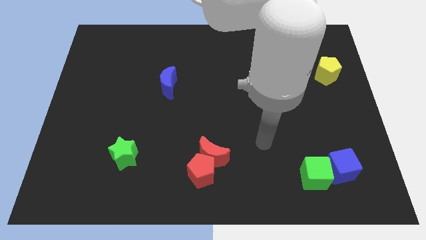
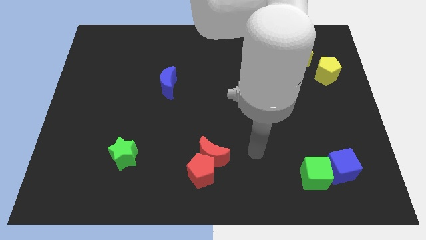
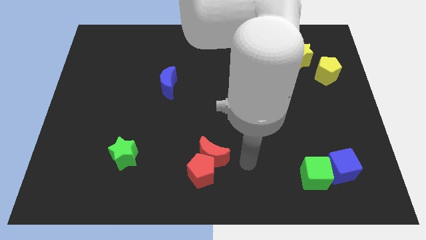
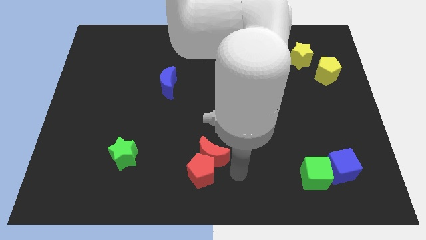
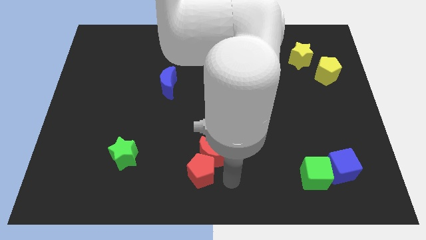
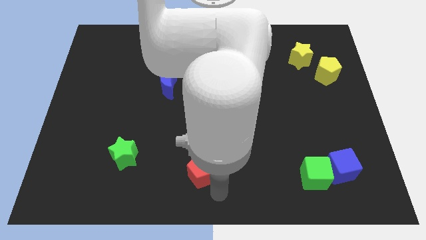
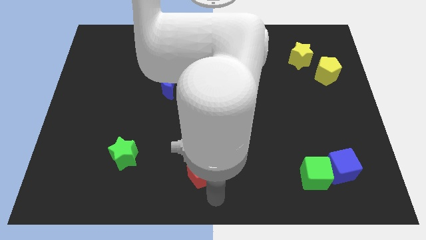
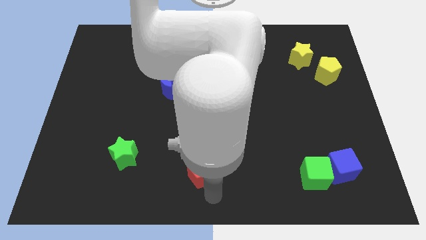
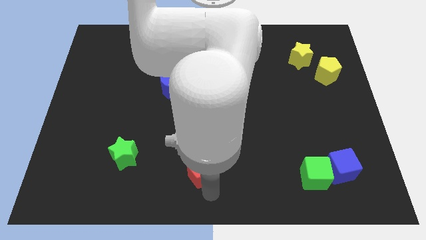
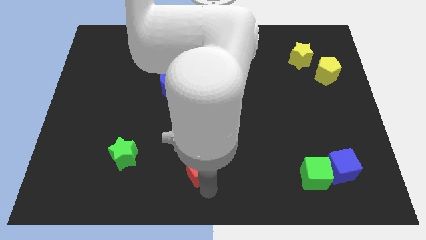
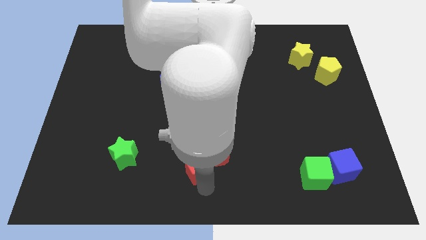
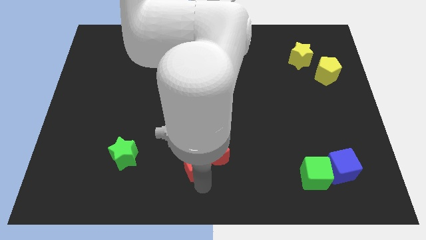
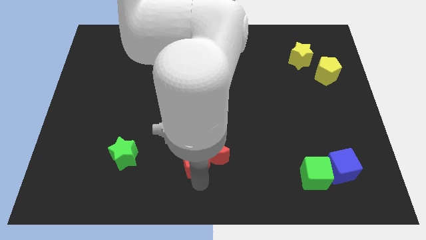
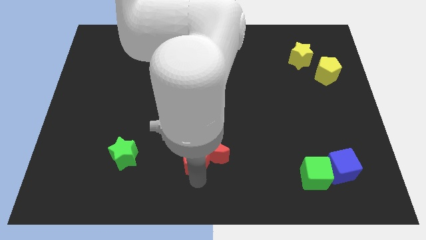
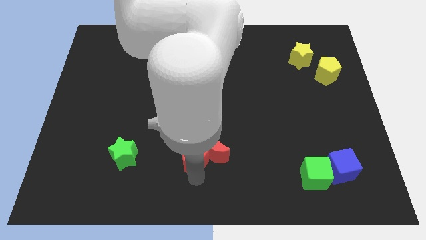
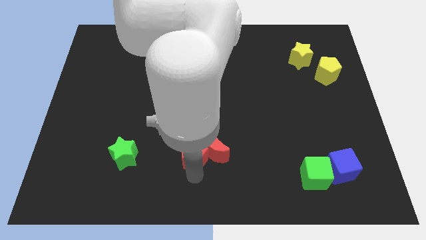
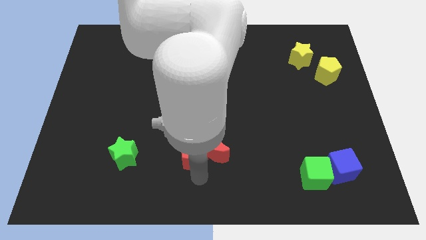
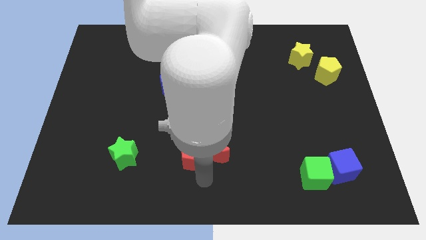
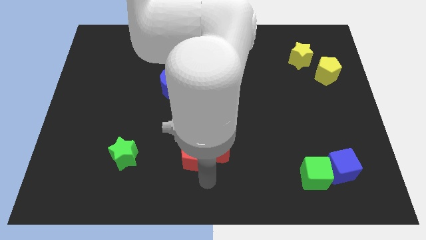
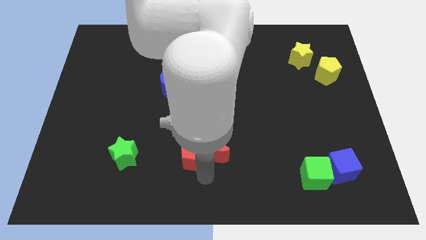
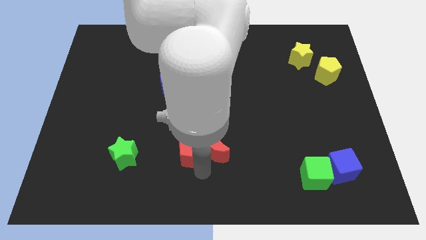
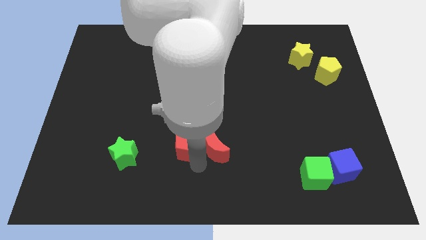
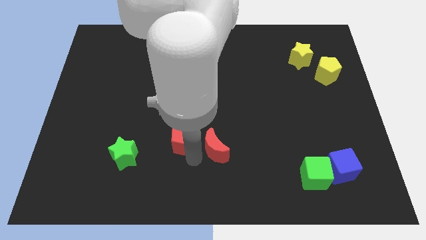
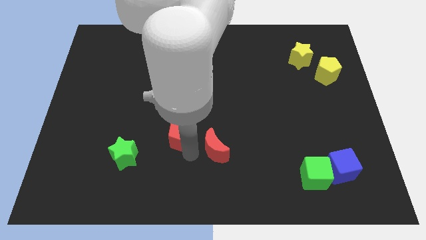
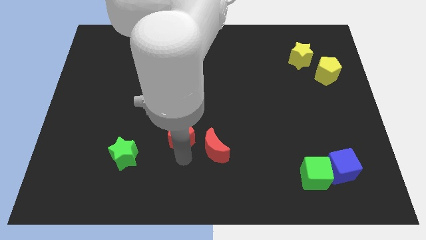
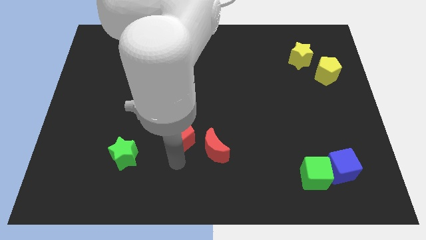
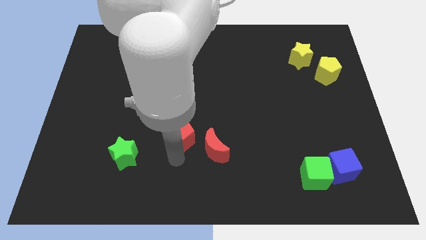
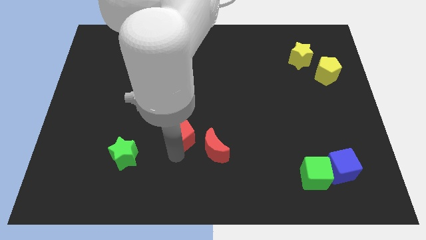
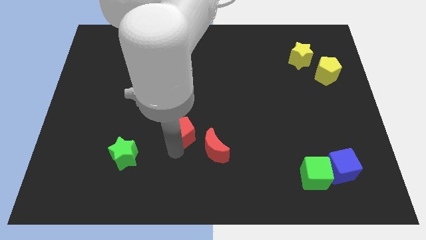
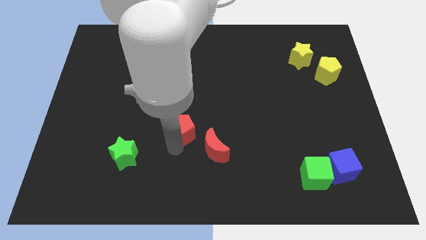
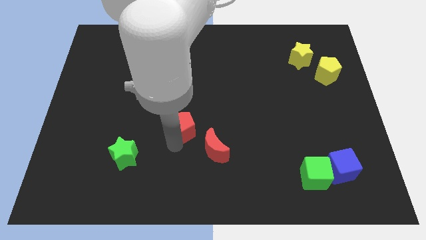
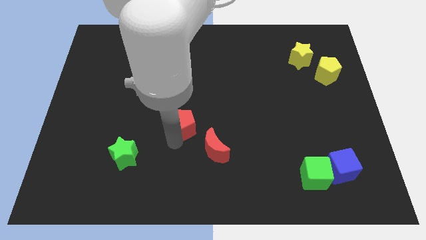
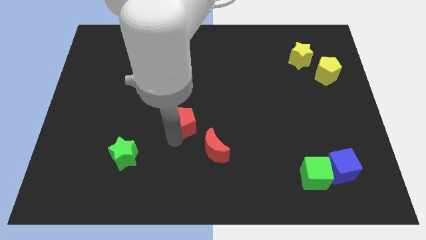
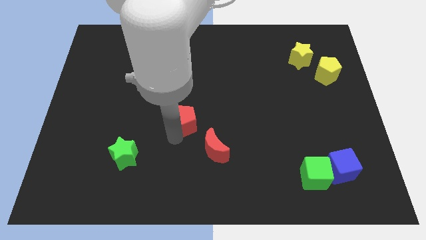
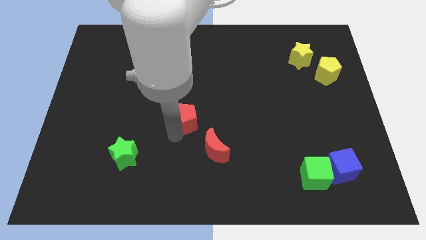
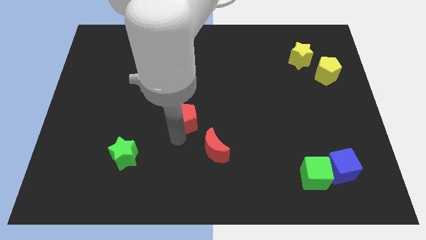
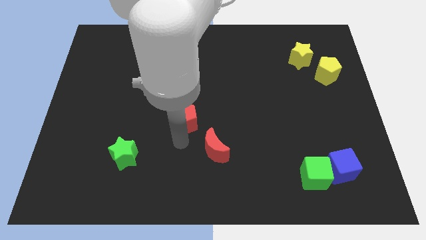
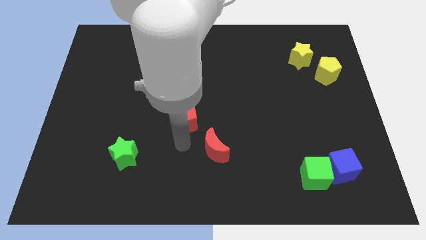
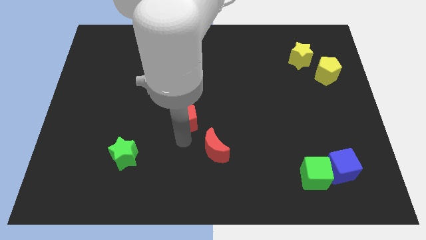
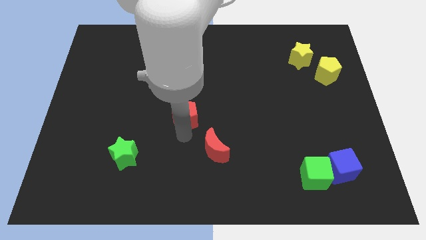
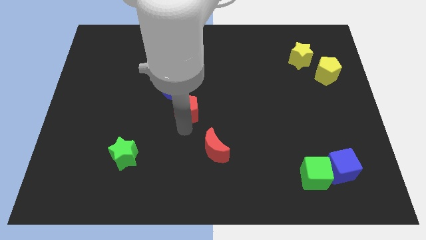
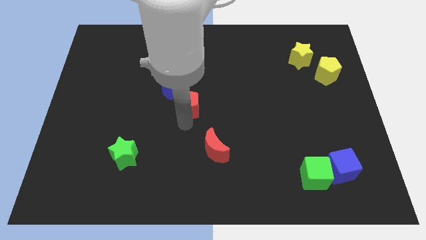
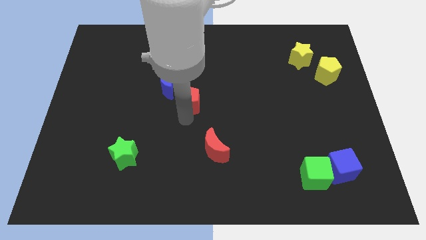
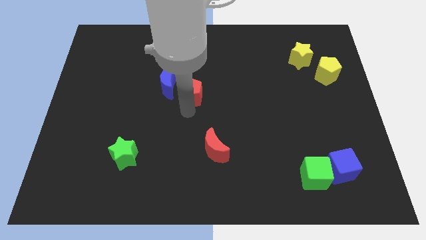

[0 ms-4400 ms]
push the red pentagon upwards

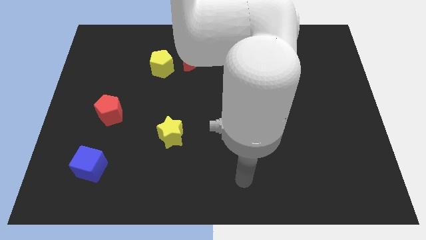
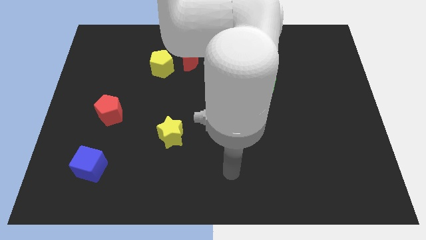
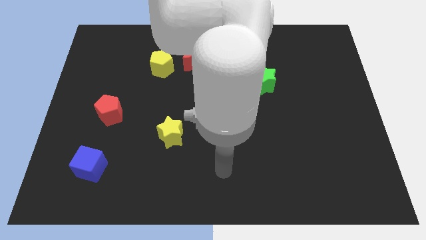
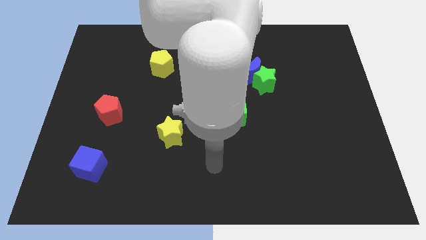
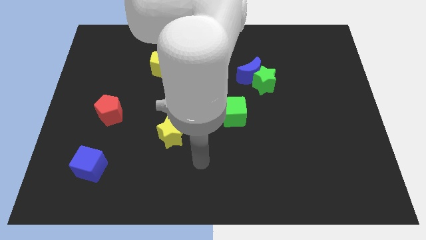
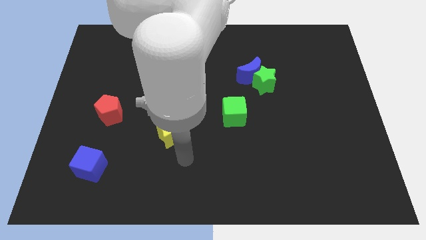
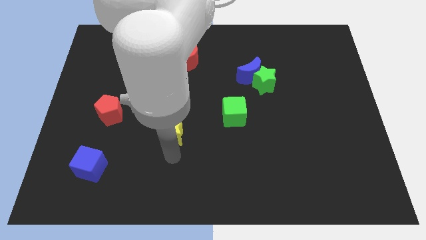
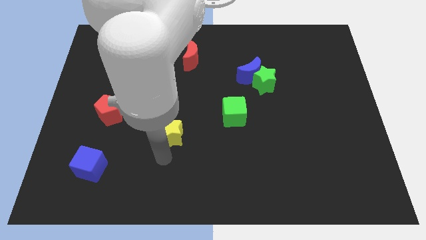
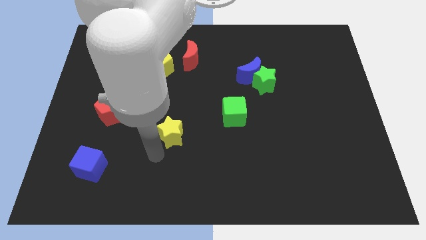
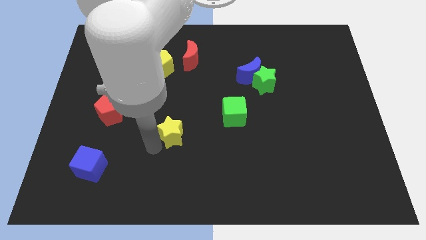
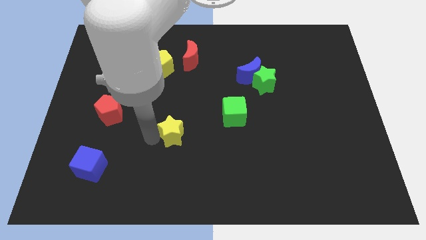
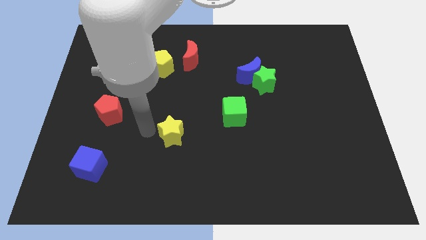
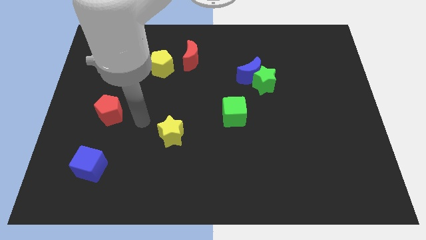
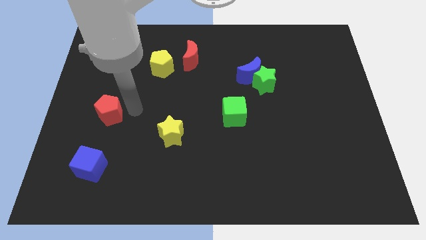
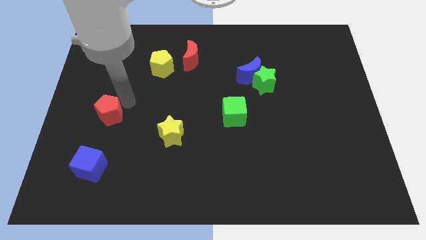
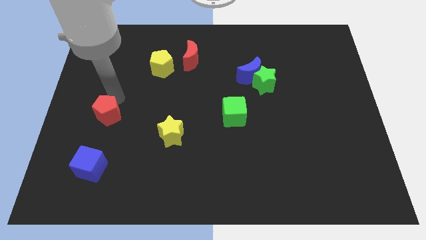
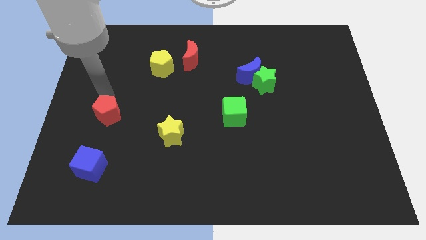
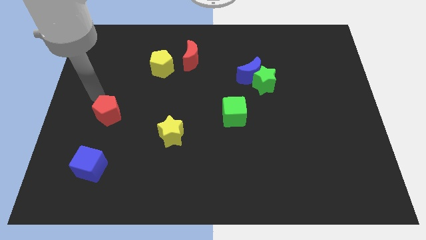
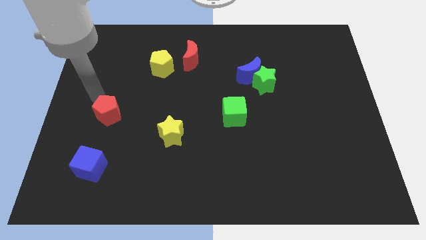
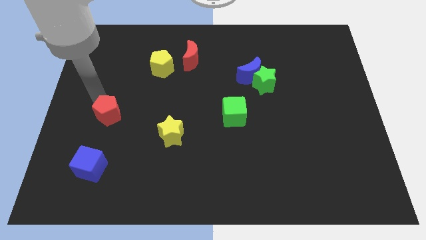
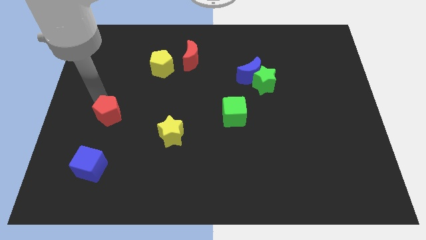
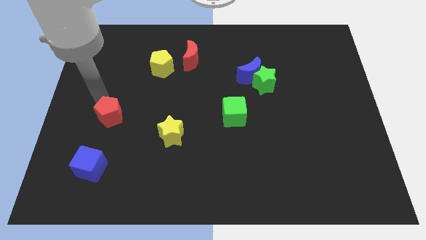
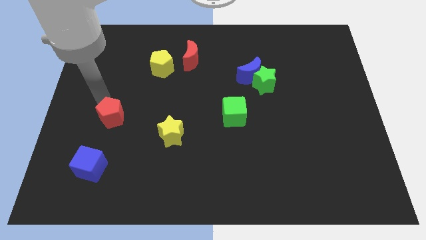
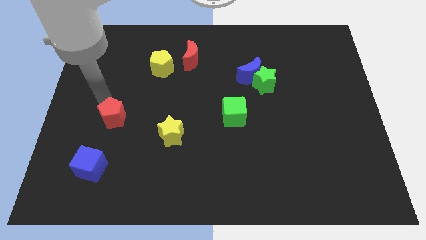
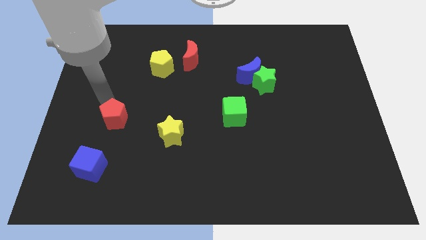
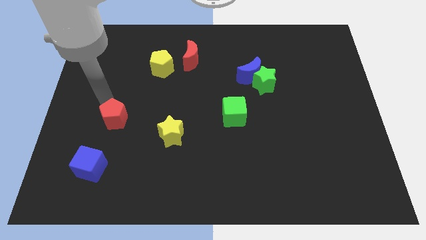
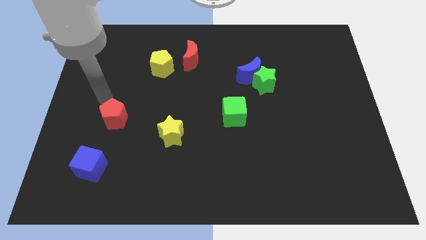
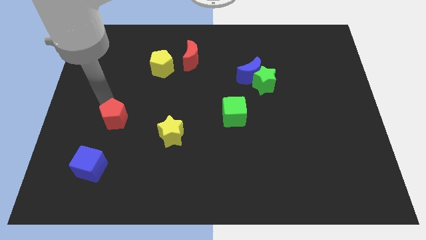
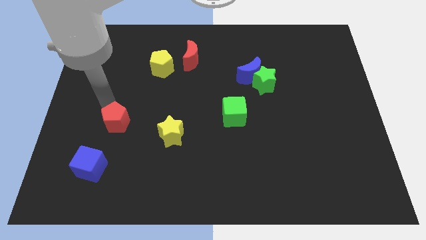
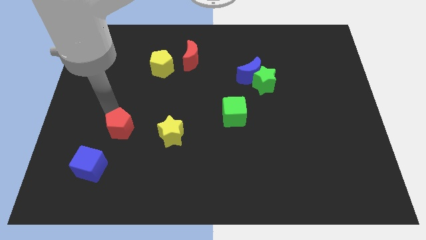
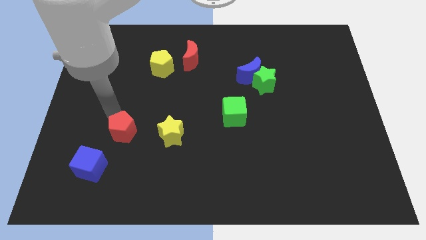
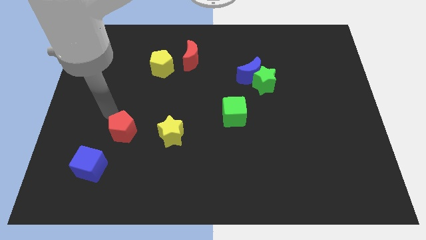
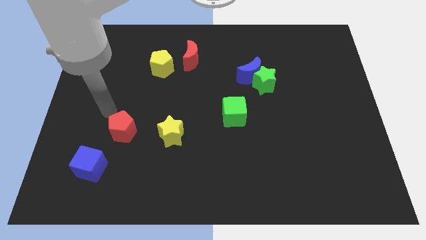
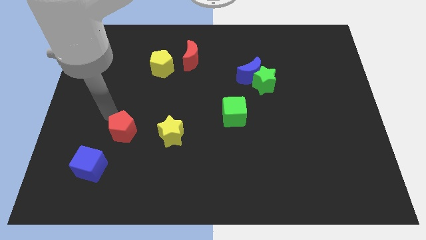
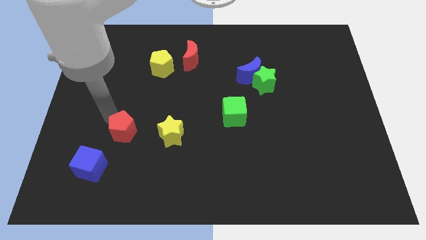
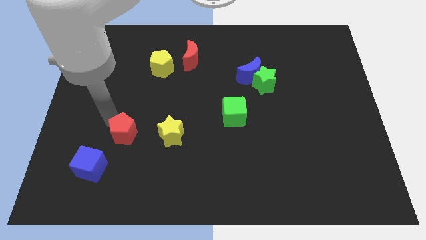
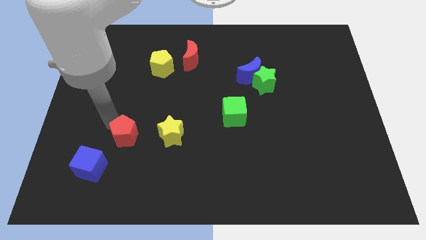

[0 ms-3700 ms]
push the red pentagon down and then right a bit
